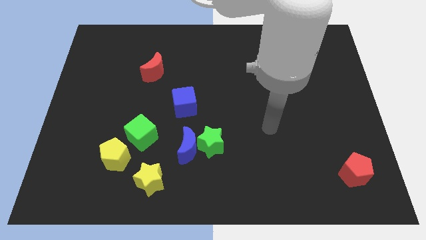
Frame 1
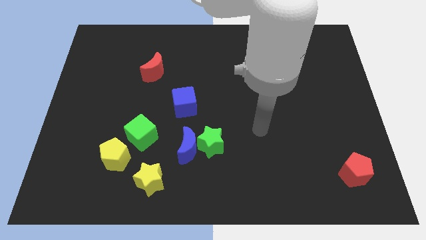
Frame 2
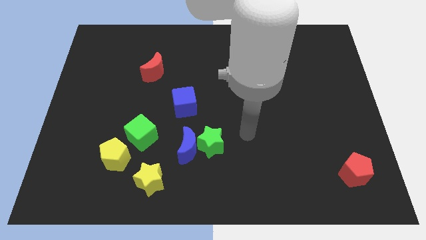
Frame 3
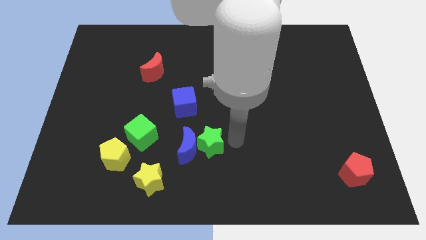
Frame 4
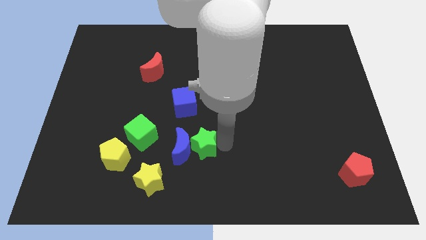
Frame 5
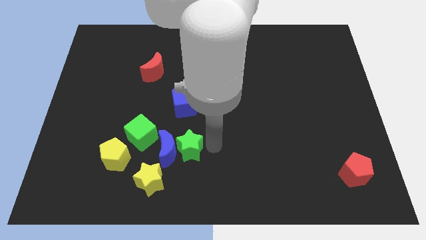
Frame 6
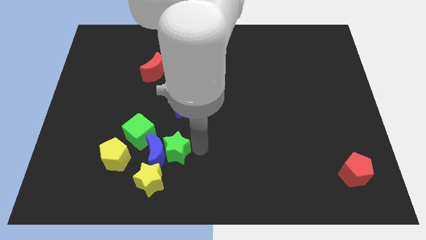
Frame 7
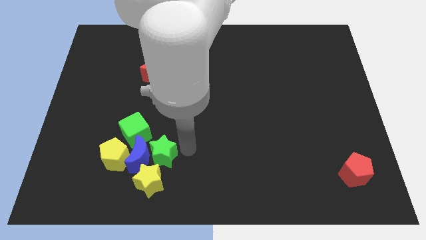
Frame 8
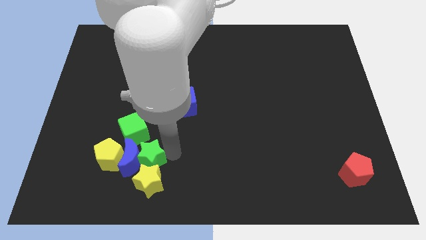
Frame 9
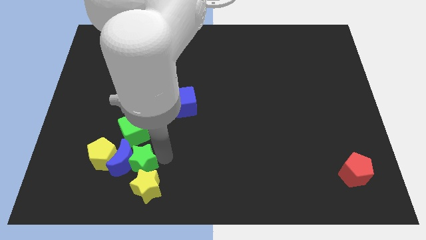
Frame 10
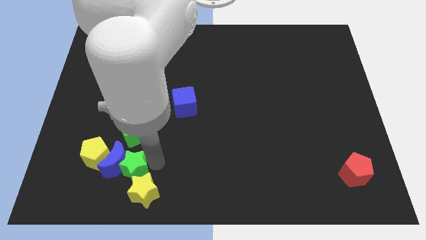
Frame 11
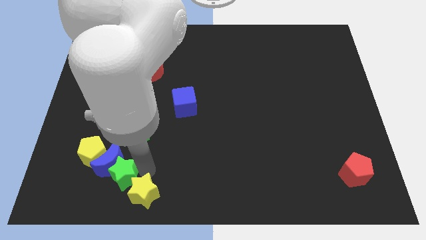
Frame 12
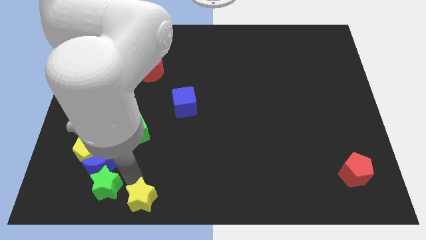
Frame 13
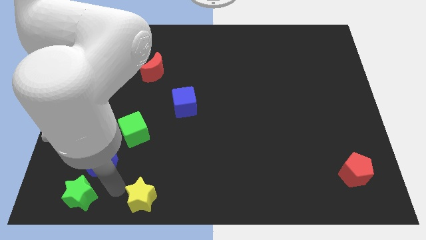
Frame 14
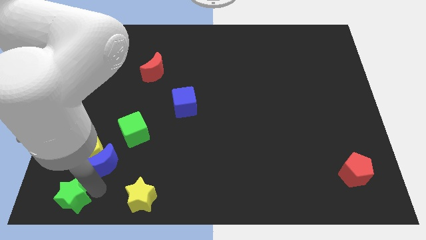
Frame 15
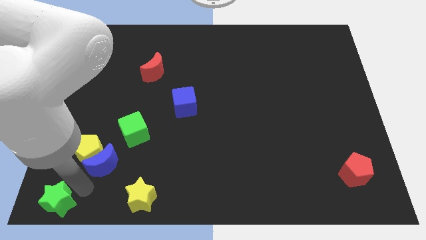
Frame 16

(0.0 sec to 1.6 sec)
separate the blue moon from the green star

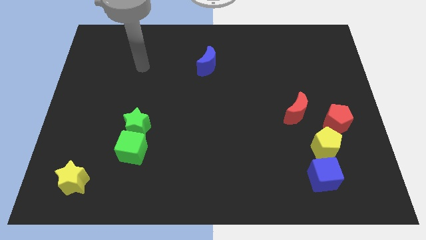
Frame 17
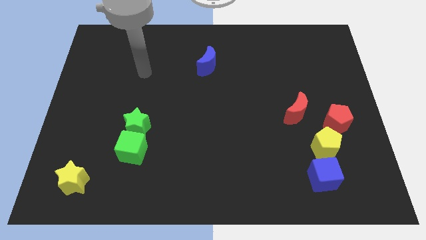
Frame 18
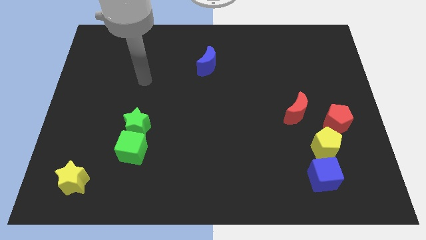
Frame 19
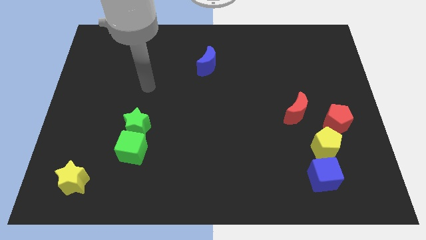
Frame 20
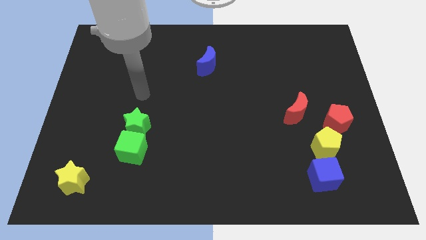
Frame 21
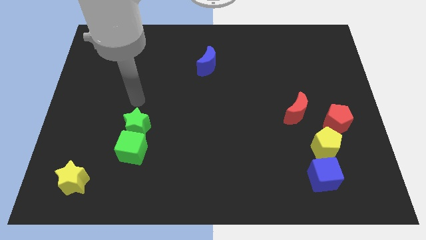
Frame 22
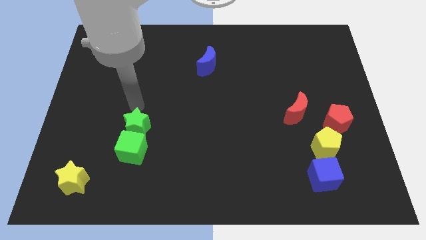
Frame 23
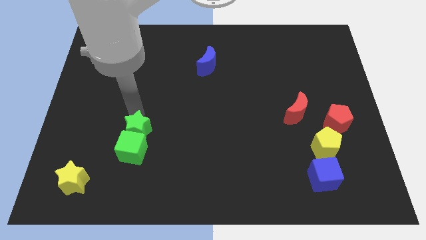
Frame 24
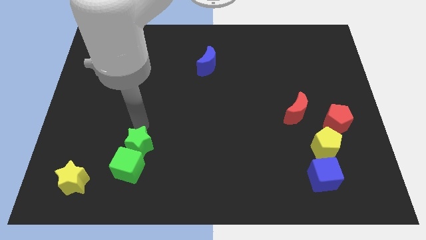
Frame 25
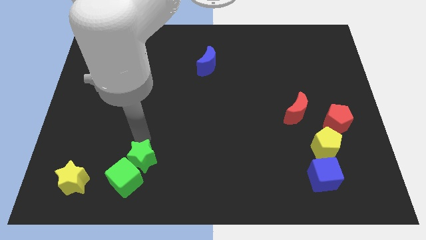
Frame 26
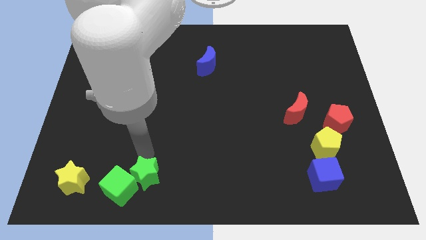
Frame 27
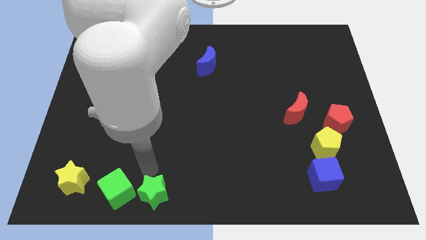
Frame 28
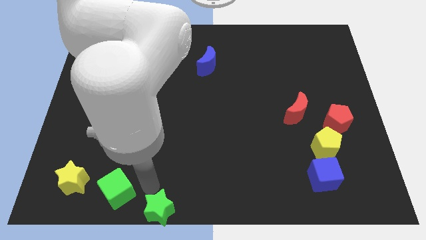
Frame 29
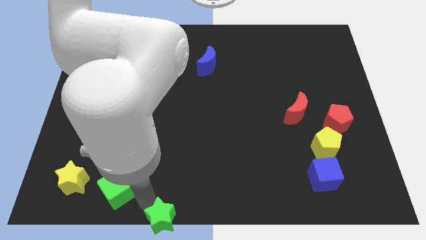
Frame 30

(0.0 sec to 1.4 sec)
move the green cube away from the green star

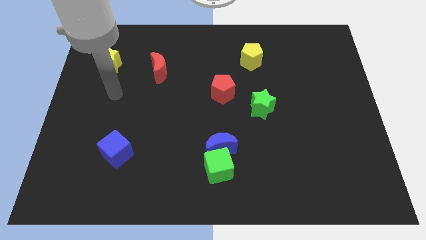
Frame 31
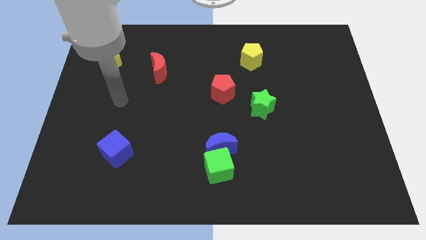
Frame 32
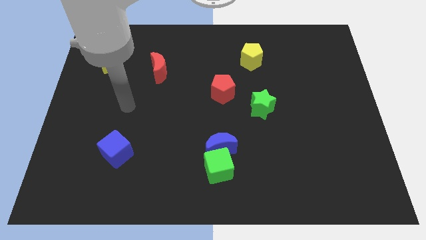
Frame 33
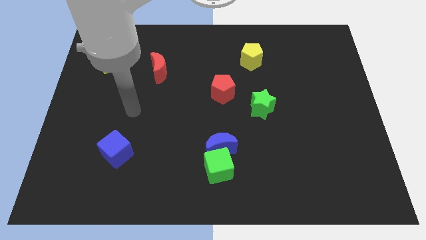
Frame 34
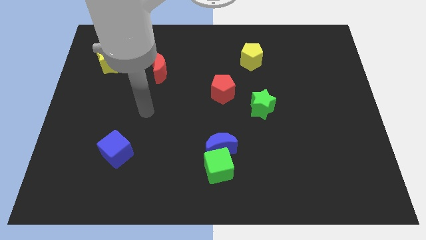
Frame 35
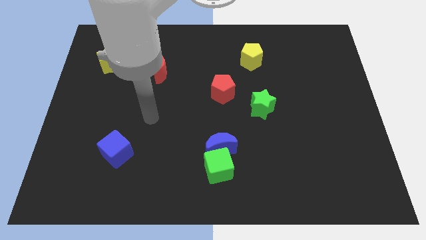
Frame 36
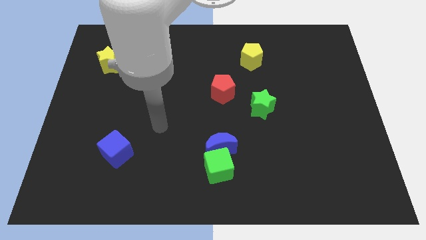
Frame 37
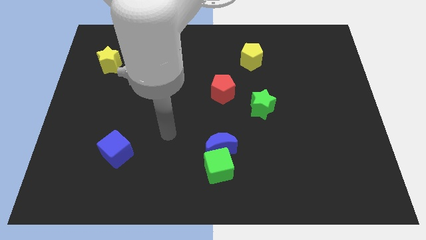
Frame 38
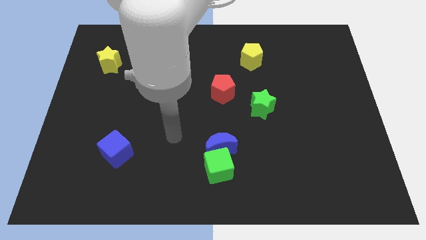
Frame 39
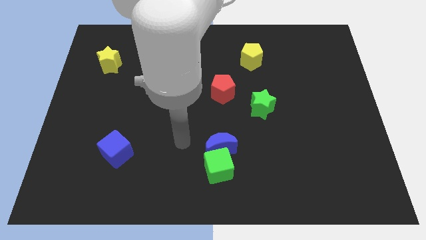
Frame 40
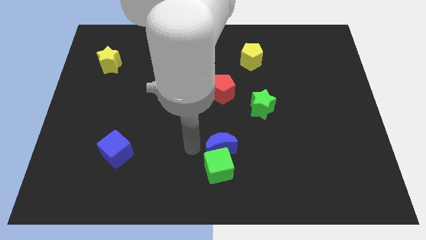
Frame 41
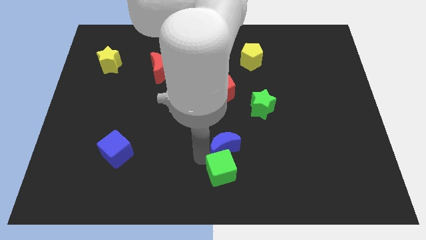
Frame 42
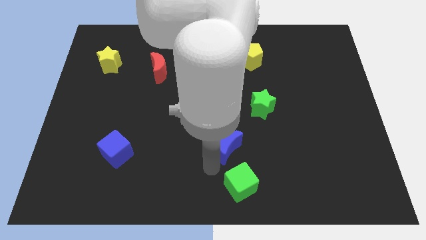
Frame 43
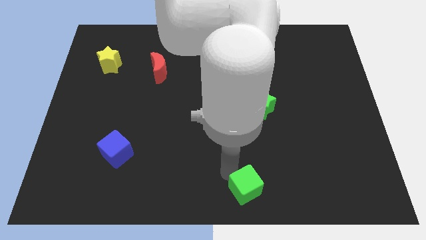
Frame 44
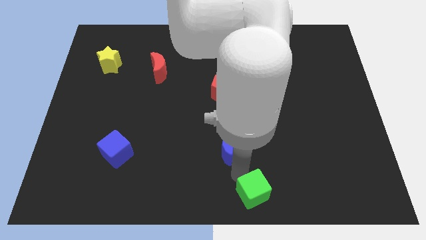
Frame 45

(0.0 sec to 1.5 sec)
separate the blue moon from the green cube

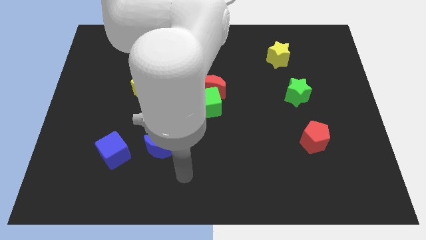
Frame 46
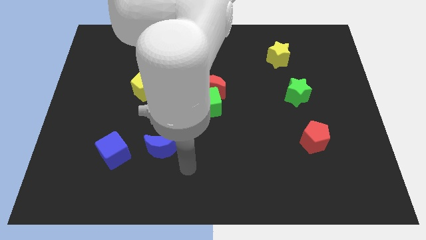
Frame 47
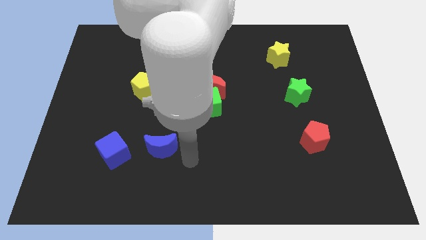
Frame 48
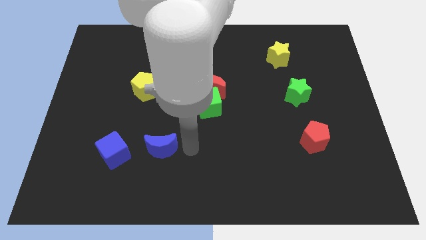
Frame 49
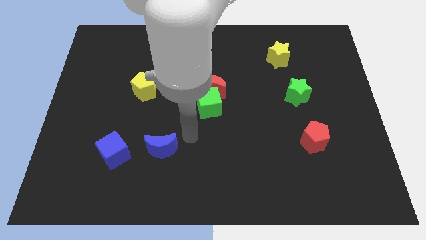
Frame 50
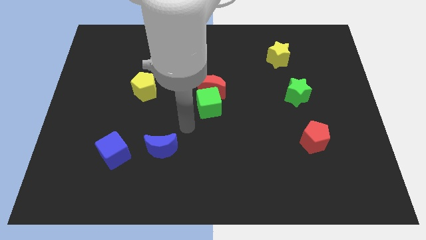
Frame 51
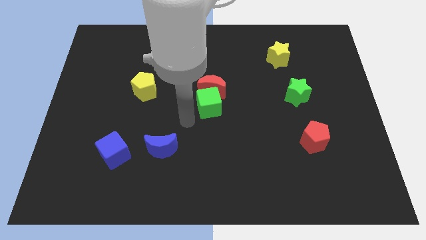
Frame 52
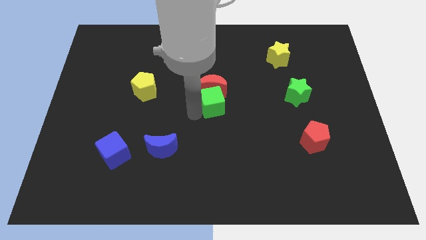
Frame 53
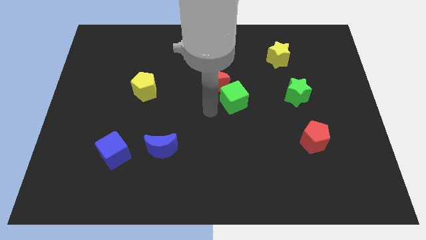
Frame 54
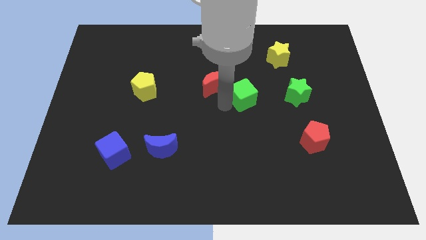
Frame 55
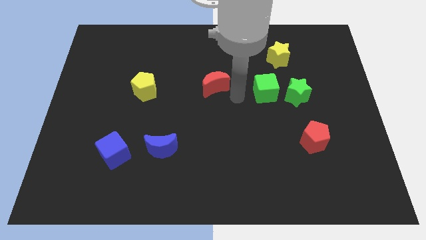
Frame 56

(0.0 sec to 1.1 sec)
pull the red moon apart from the green cube

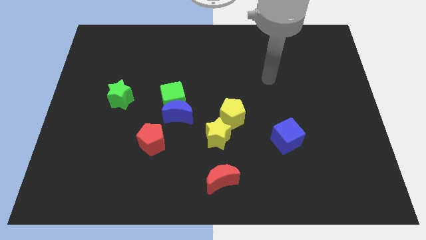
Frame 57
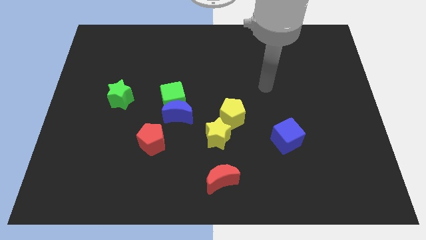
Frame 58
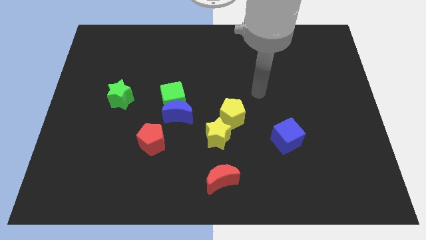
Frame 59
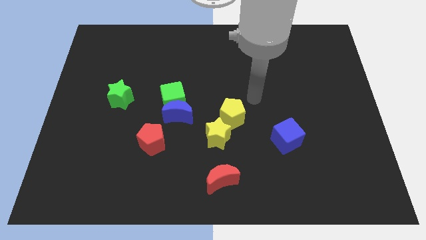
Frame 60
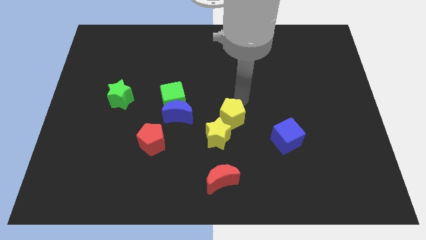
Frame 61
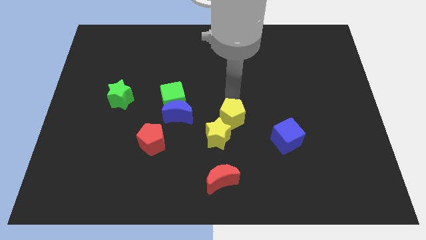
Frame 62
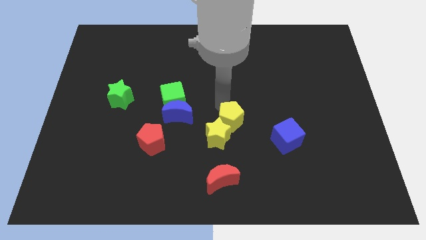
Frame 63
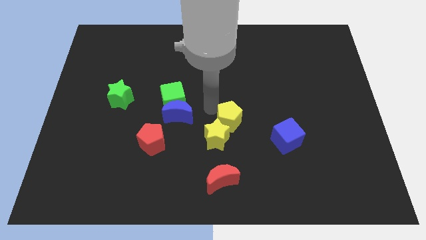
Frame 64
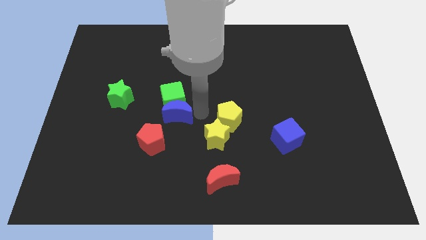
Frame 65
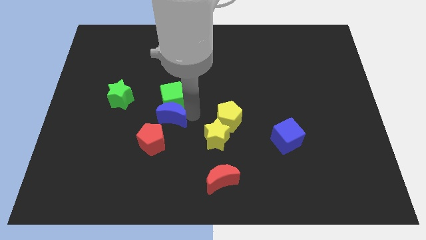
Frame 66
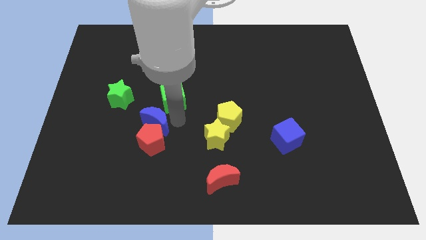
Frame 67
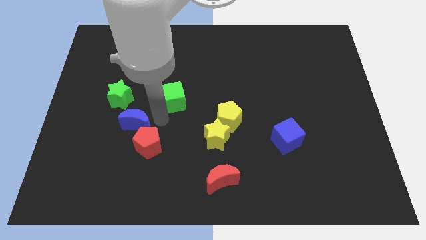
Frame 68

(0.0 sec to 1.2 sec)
separate the green cube from the blue moon

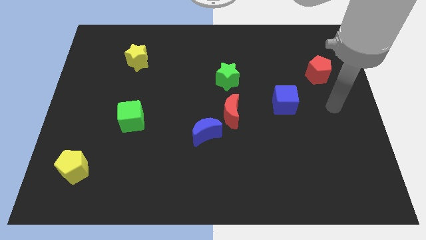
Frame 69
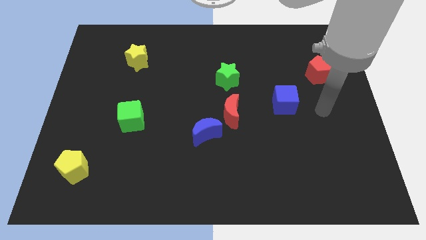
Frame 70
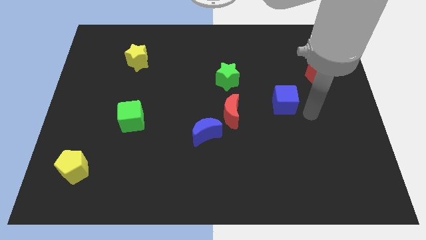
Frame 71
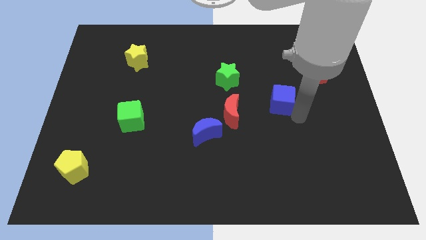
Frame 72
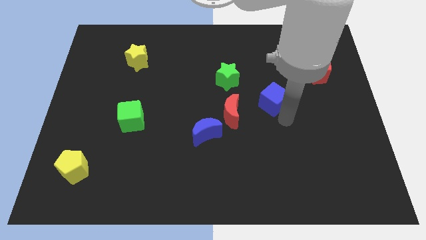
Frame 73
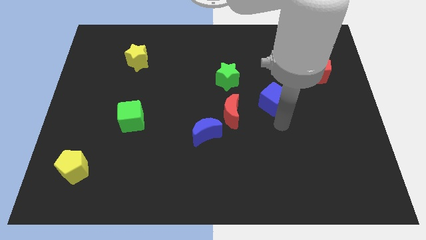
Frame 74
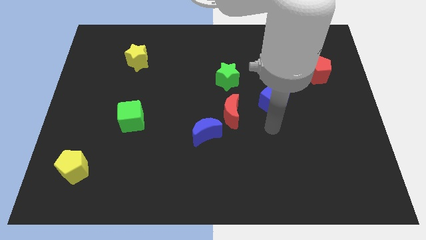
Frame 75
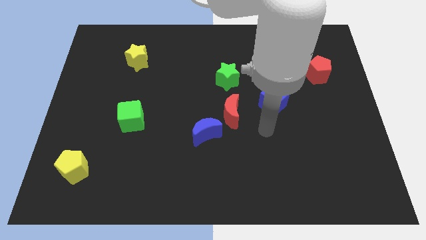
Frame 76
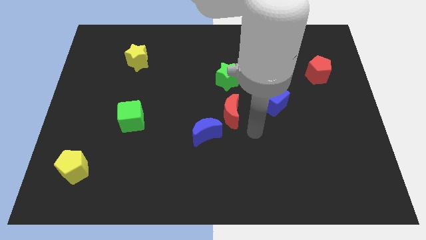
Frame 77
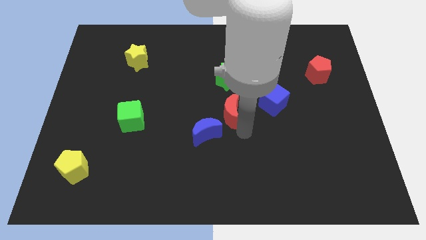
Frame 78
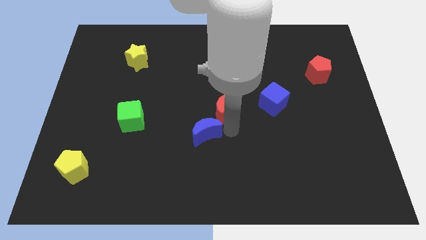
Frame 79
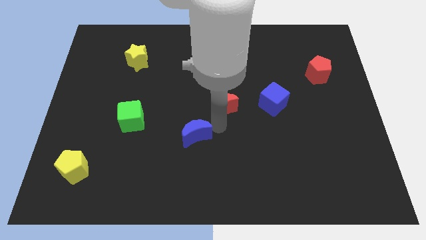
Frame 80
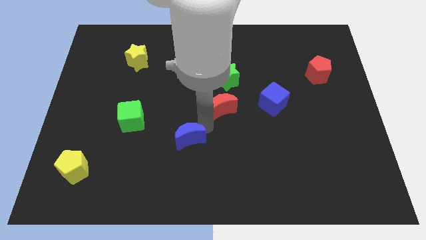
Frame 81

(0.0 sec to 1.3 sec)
move the red moon away from the blue moon

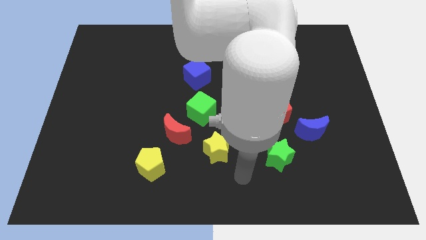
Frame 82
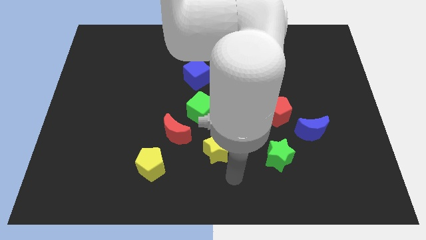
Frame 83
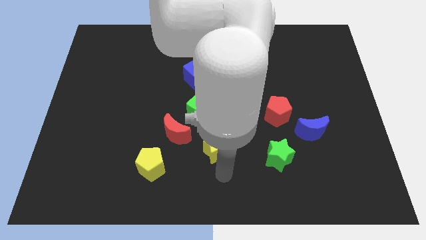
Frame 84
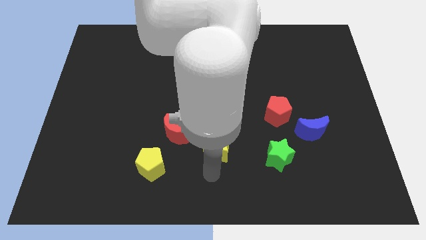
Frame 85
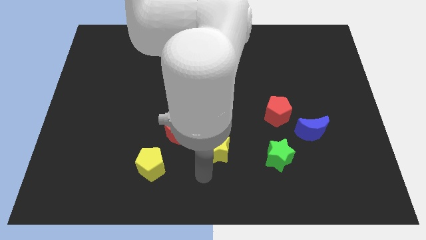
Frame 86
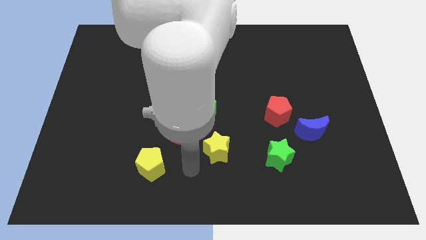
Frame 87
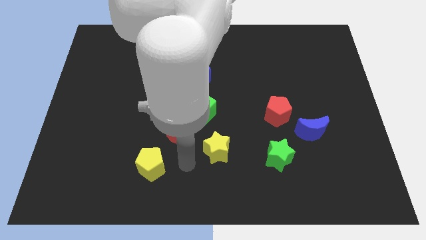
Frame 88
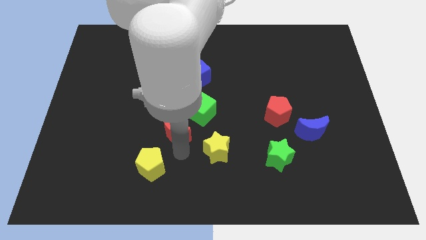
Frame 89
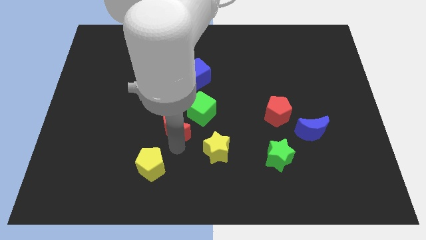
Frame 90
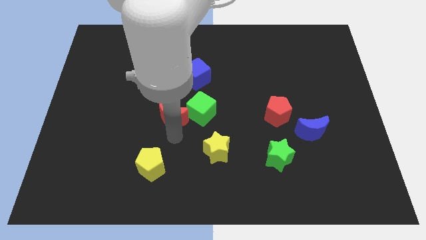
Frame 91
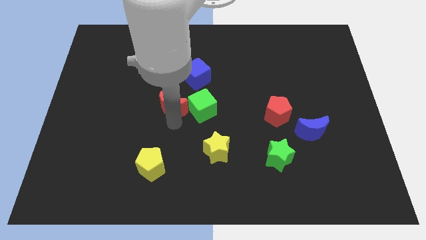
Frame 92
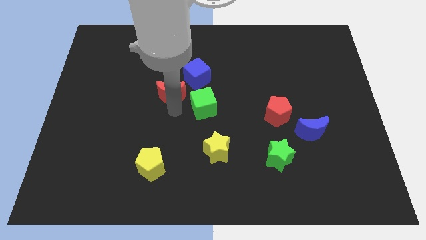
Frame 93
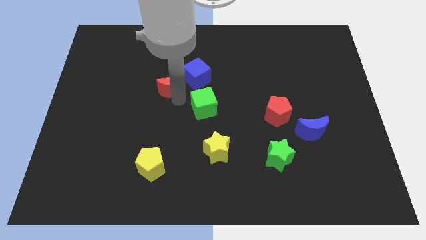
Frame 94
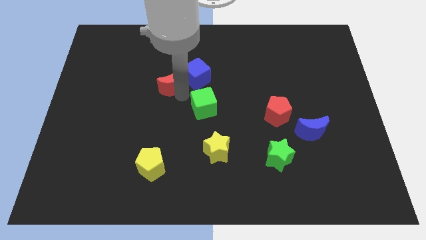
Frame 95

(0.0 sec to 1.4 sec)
move the green cube away from the red moon

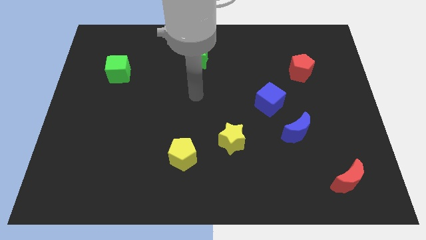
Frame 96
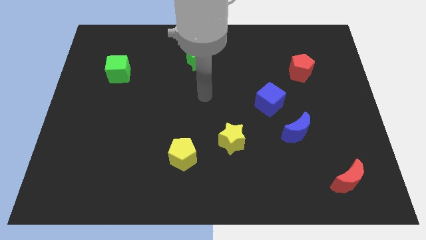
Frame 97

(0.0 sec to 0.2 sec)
separate the blue moon from the blue cube
